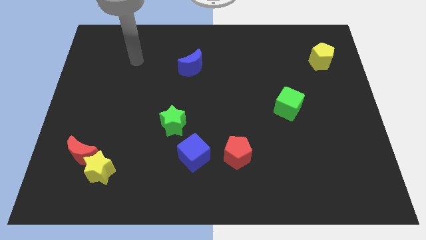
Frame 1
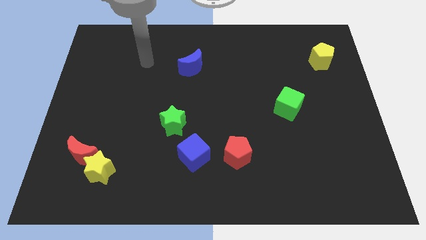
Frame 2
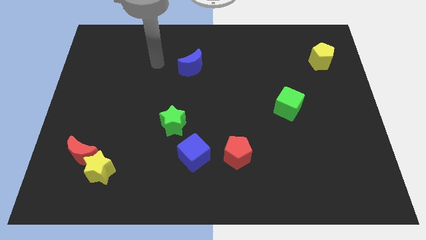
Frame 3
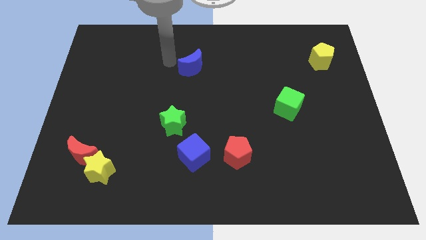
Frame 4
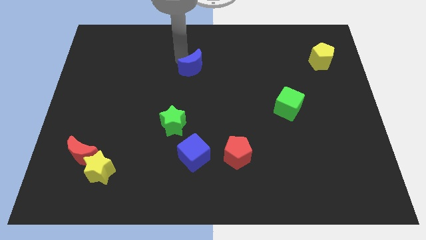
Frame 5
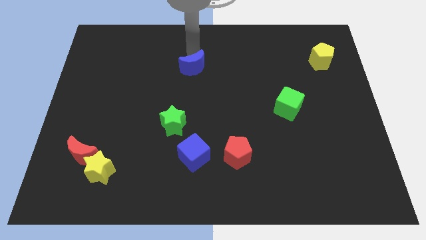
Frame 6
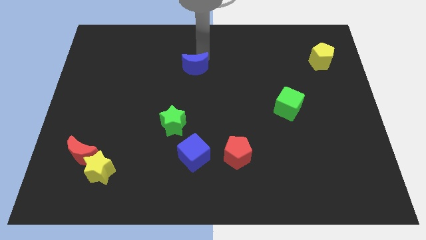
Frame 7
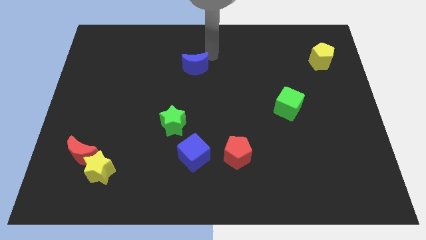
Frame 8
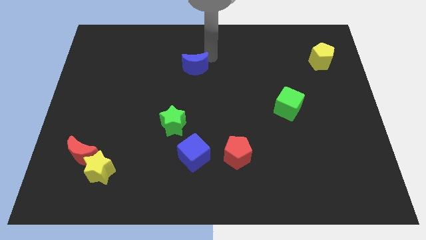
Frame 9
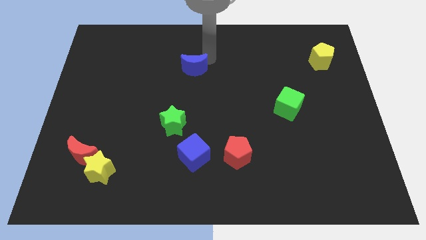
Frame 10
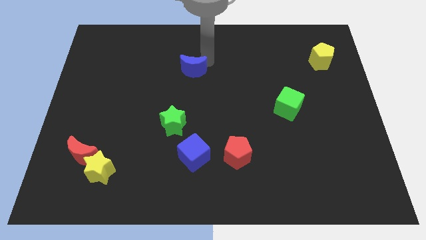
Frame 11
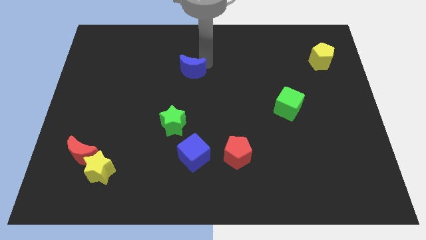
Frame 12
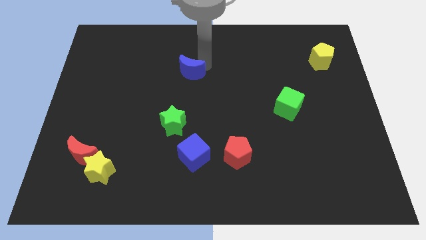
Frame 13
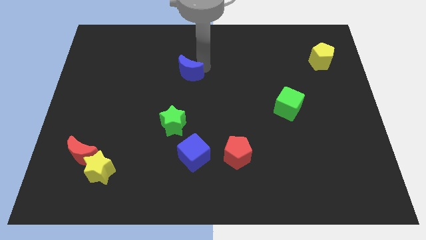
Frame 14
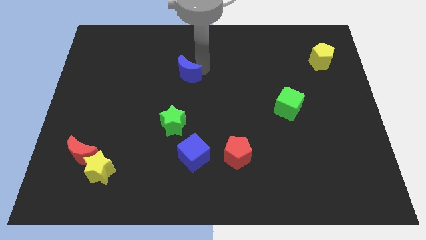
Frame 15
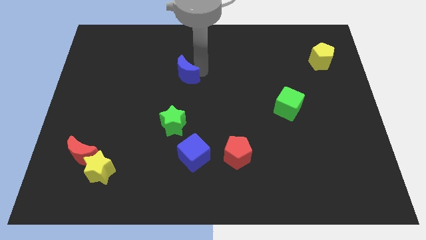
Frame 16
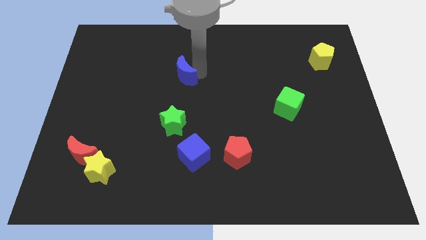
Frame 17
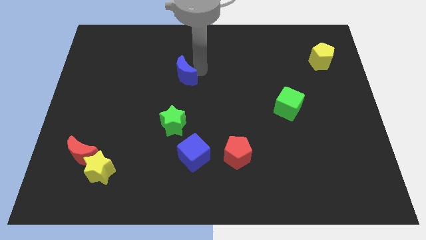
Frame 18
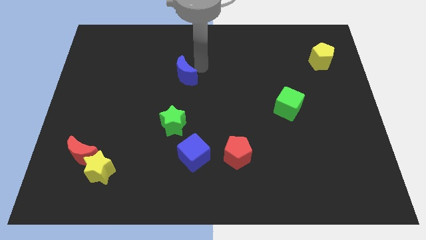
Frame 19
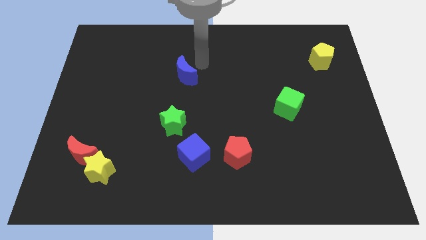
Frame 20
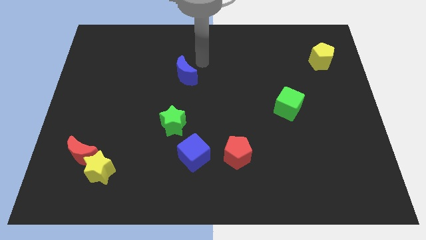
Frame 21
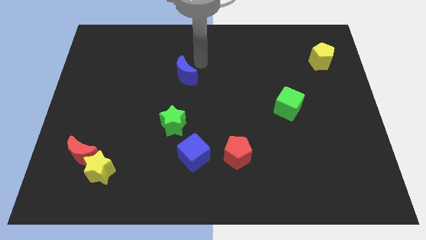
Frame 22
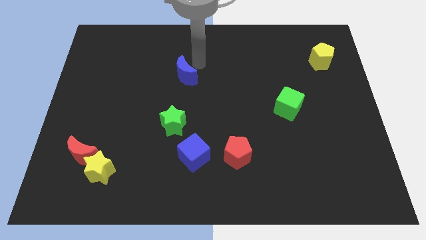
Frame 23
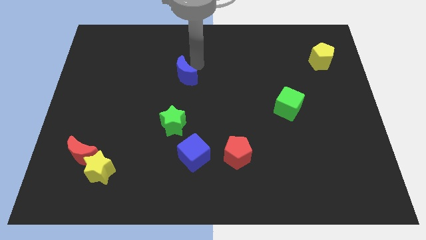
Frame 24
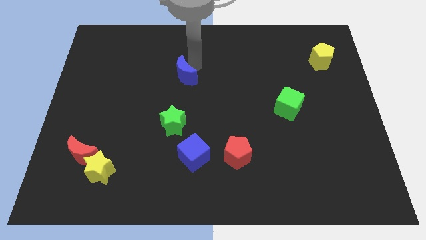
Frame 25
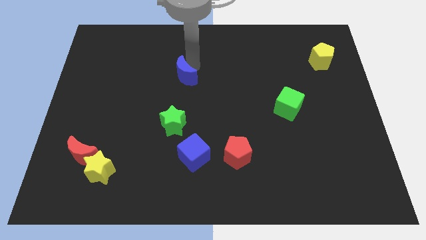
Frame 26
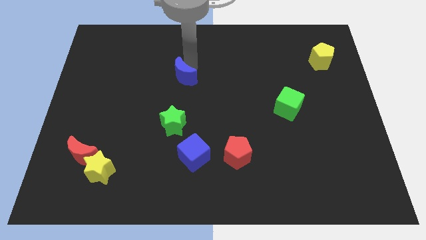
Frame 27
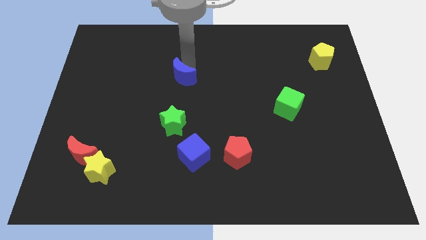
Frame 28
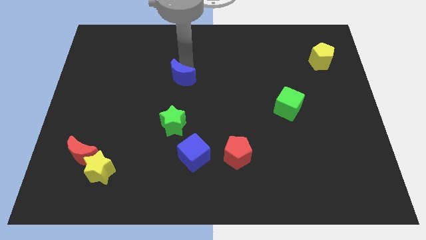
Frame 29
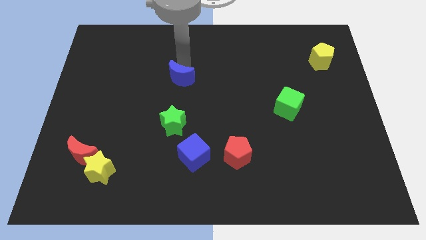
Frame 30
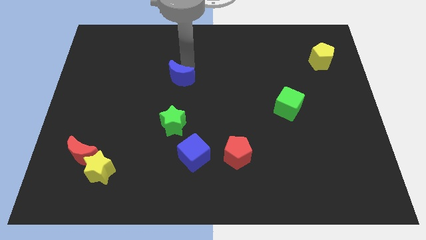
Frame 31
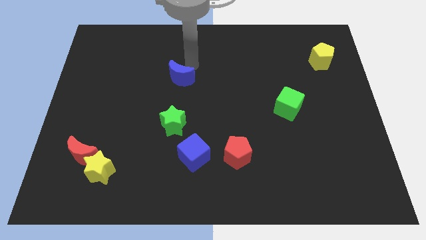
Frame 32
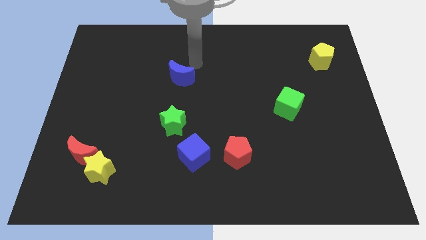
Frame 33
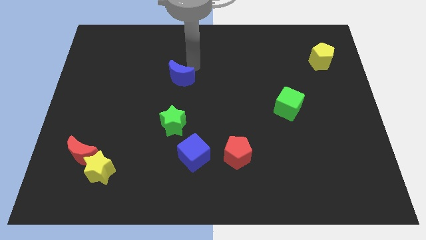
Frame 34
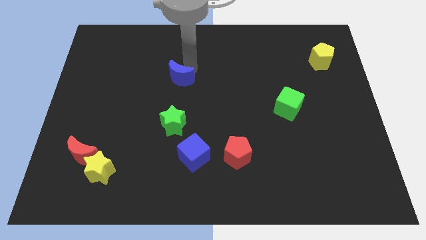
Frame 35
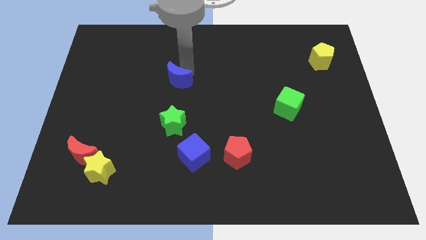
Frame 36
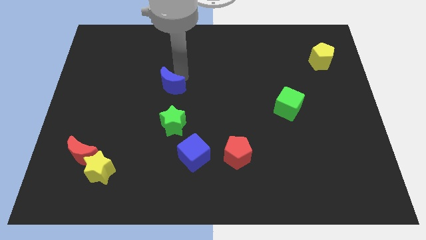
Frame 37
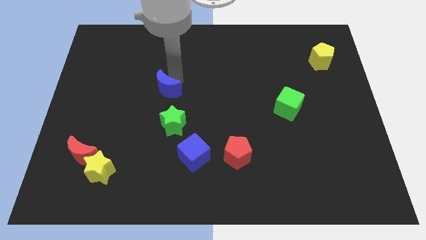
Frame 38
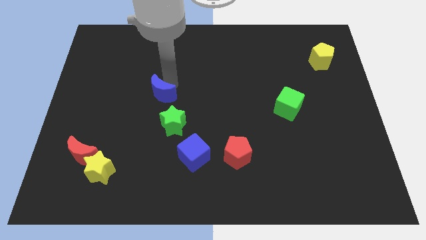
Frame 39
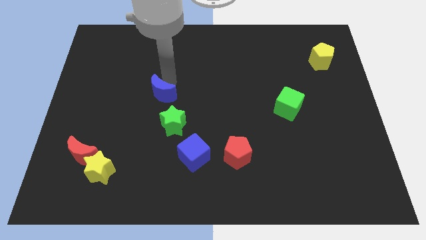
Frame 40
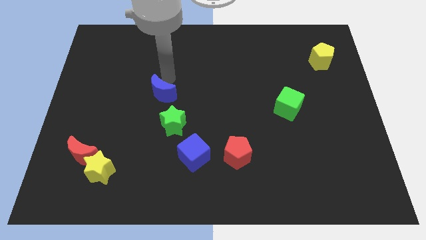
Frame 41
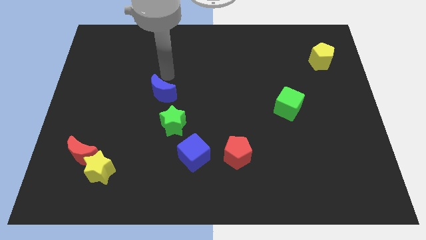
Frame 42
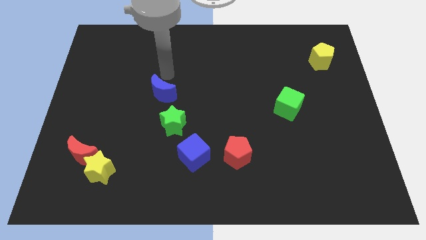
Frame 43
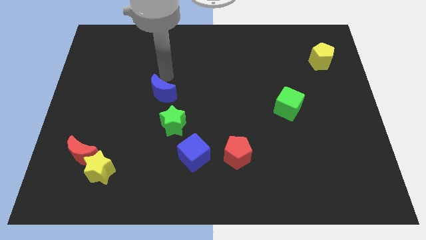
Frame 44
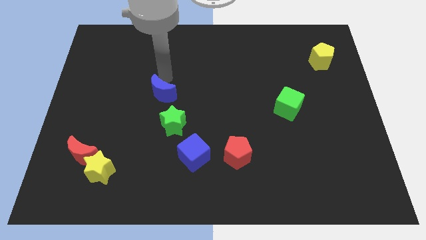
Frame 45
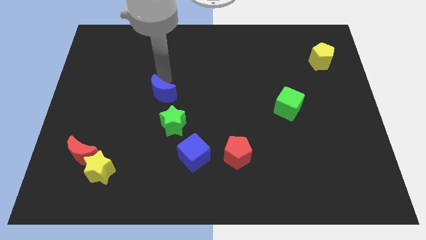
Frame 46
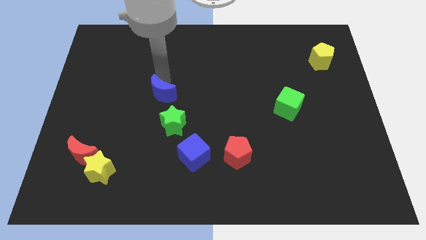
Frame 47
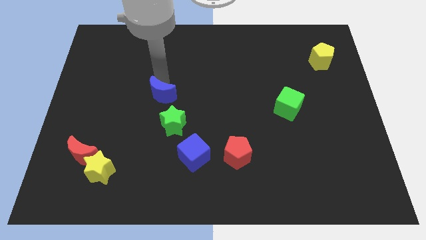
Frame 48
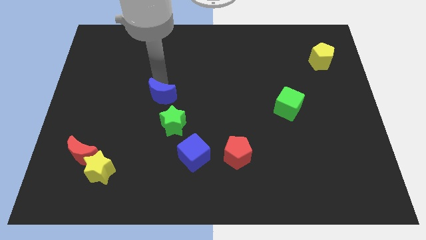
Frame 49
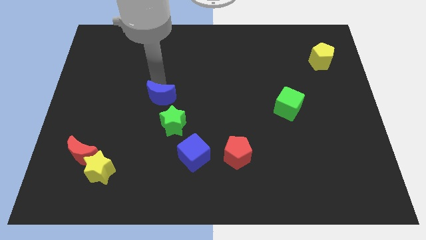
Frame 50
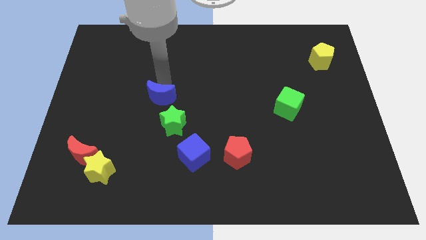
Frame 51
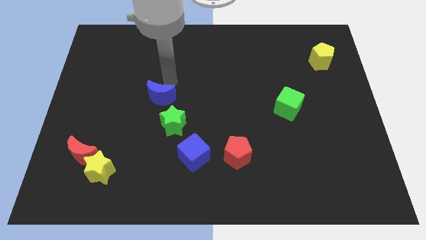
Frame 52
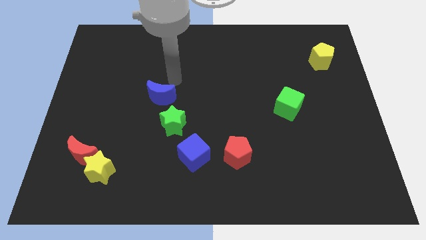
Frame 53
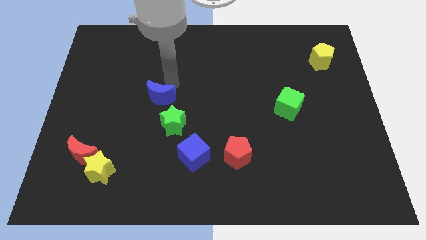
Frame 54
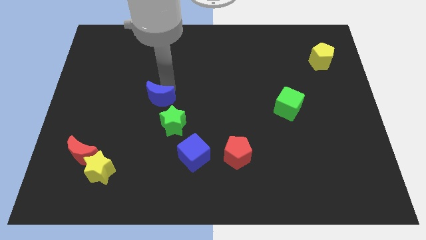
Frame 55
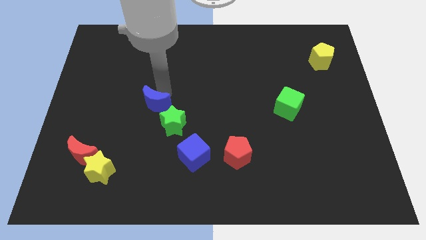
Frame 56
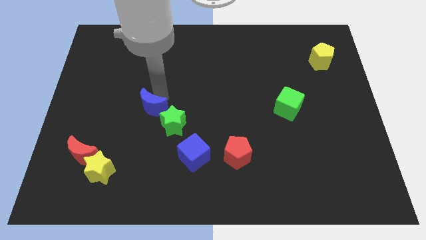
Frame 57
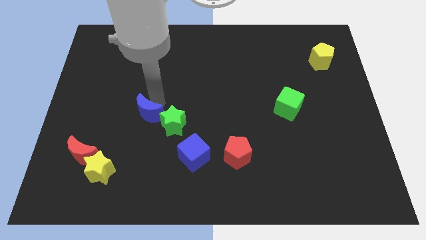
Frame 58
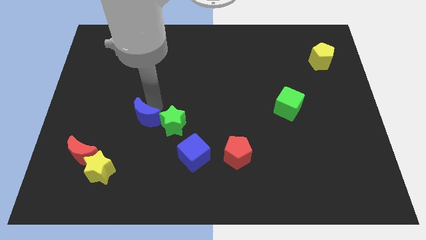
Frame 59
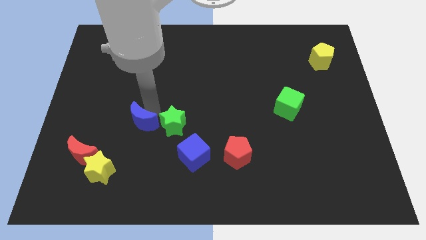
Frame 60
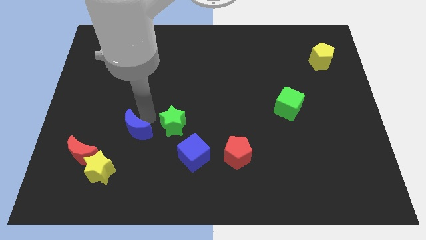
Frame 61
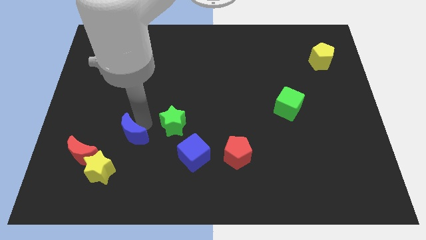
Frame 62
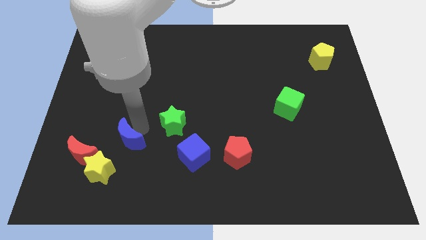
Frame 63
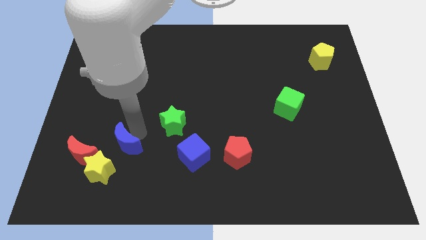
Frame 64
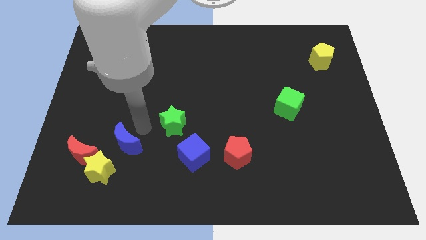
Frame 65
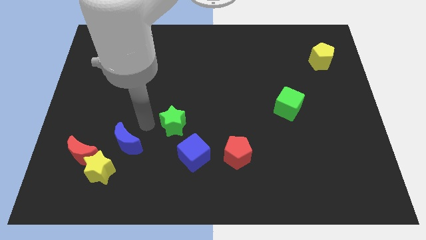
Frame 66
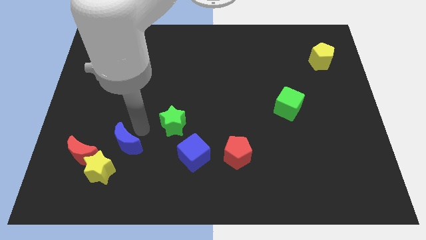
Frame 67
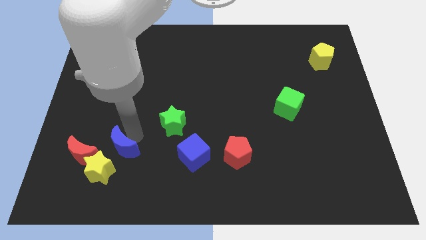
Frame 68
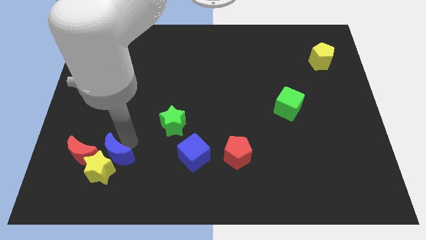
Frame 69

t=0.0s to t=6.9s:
slide the blue moon towards the yellow star

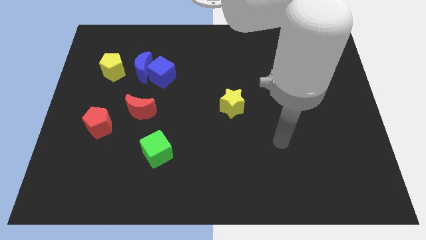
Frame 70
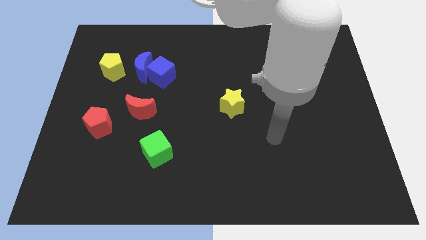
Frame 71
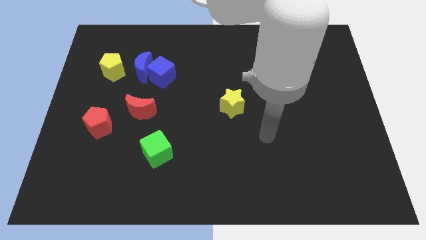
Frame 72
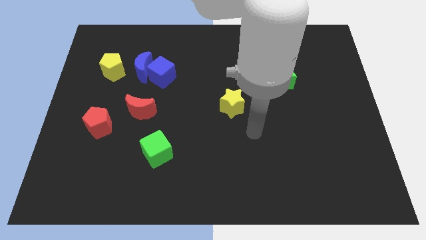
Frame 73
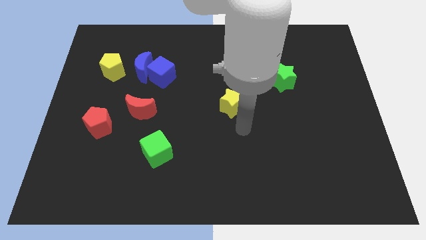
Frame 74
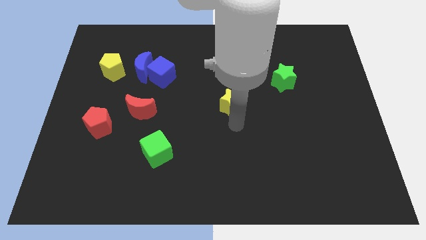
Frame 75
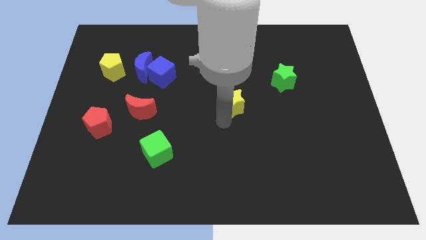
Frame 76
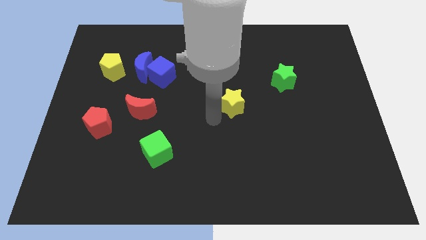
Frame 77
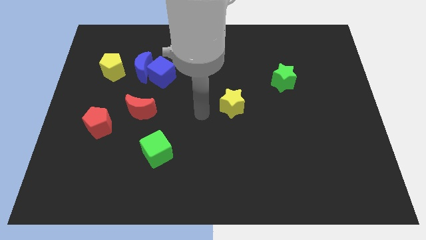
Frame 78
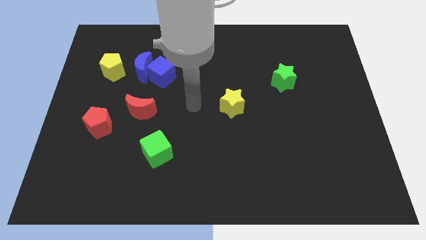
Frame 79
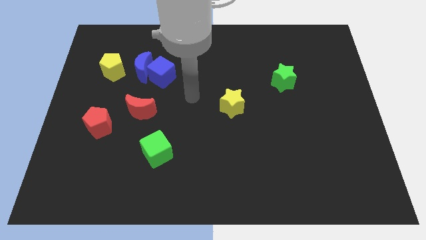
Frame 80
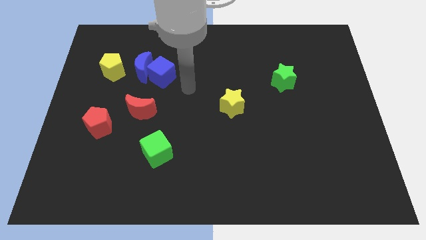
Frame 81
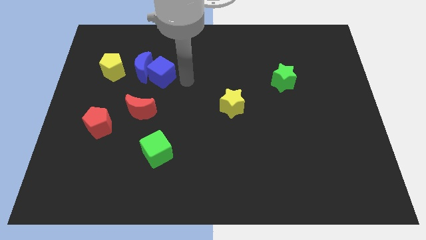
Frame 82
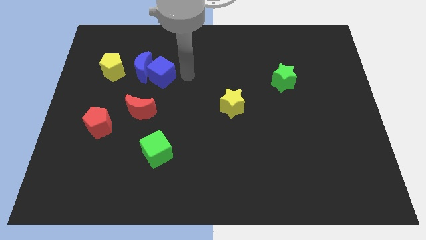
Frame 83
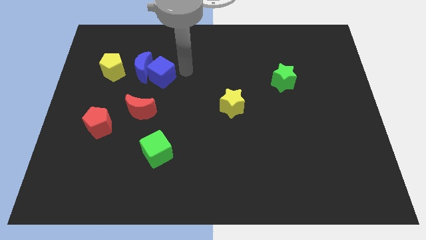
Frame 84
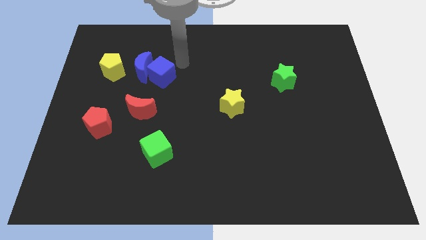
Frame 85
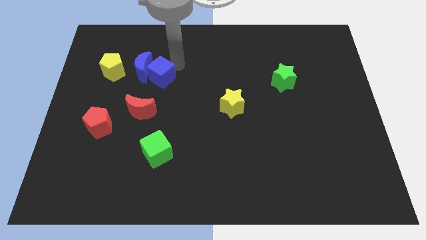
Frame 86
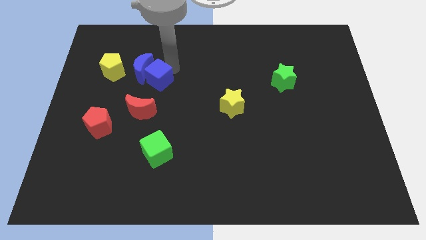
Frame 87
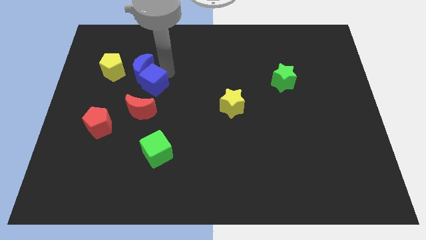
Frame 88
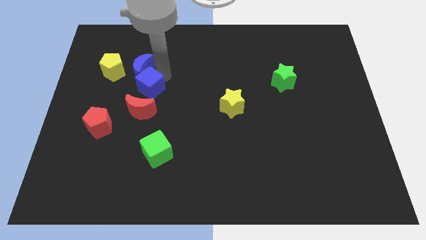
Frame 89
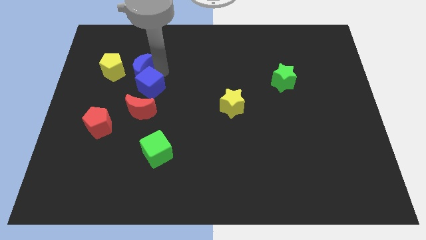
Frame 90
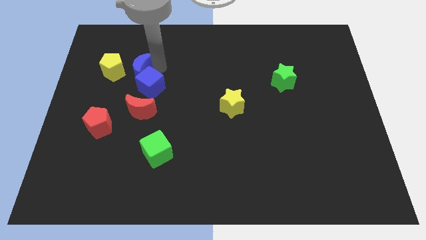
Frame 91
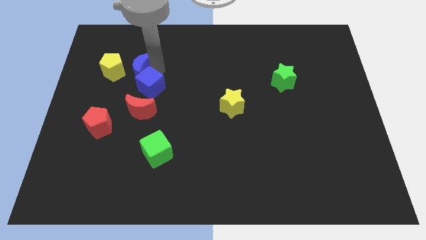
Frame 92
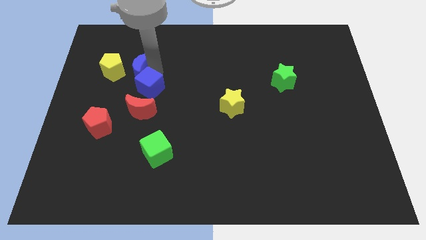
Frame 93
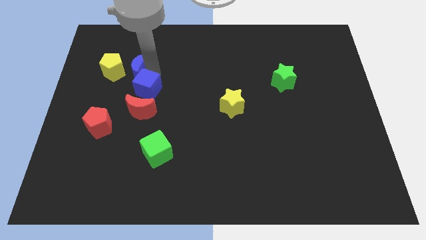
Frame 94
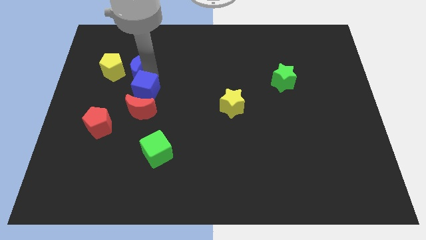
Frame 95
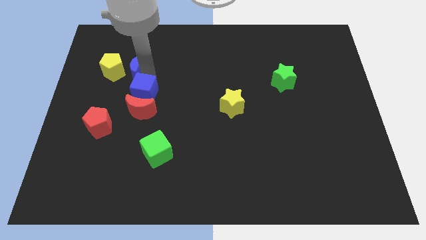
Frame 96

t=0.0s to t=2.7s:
put the blue cube next to the red moon
